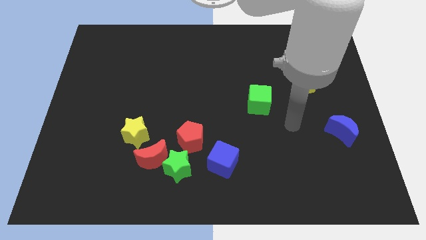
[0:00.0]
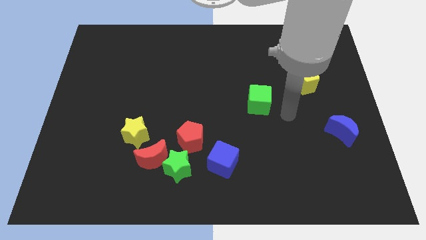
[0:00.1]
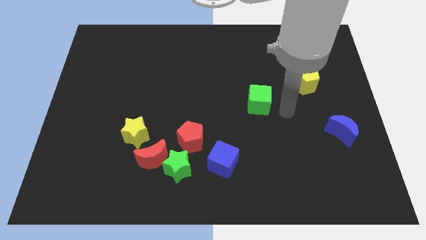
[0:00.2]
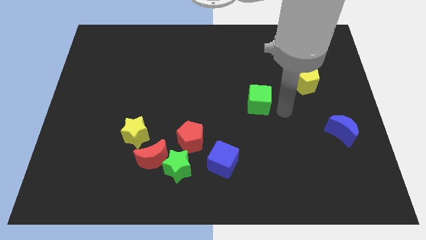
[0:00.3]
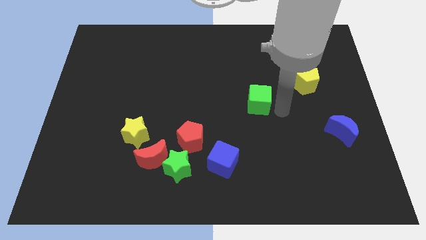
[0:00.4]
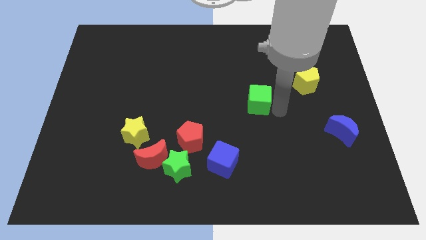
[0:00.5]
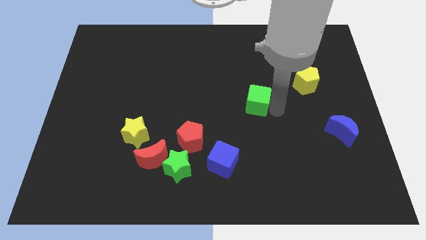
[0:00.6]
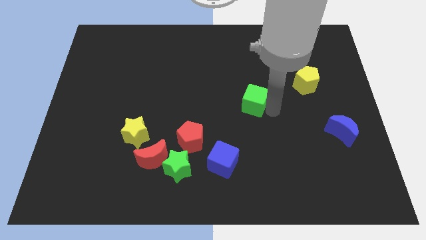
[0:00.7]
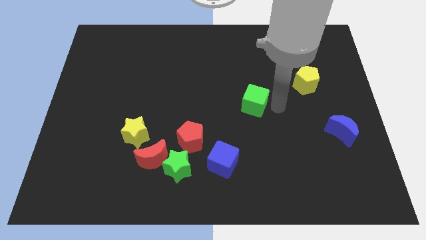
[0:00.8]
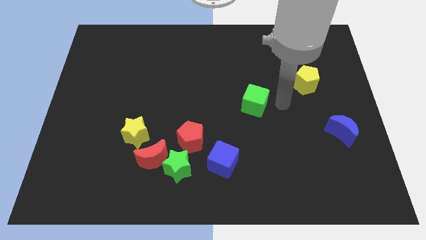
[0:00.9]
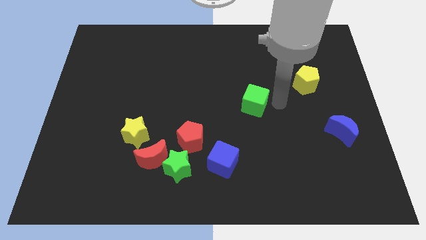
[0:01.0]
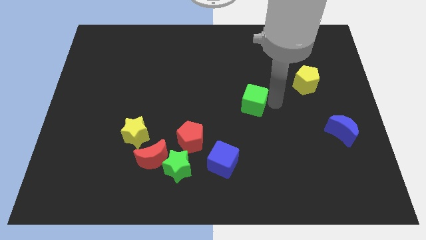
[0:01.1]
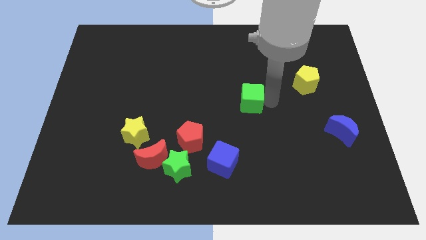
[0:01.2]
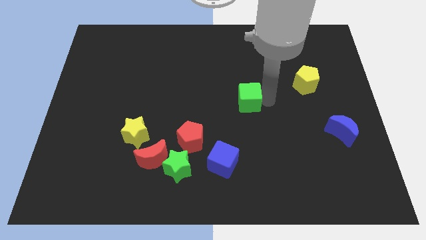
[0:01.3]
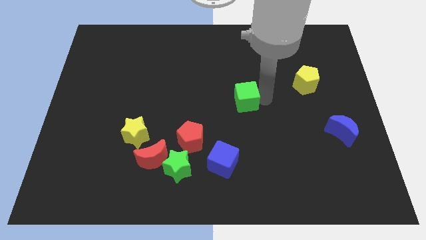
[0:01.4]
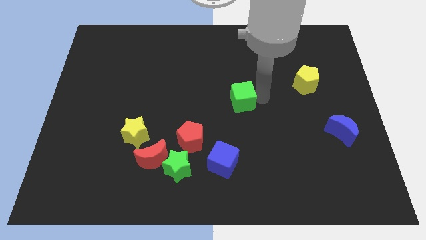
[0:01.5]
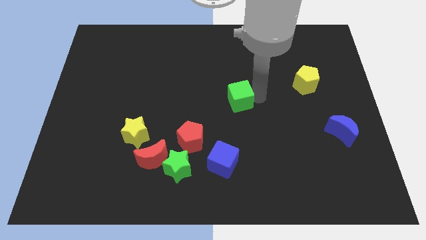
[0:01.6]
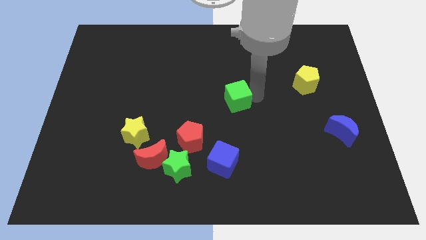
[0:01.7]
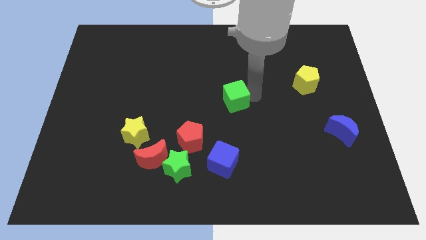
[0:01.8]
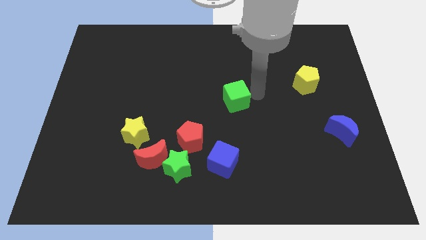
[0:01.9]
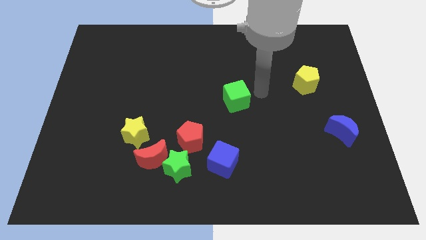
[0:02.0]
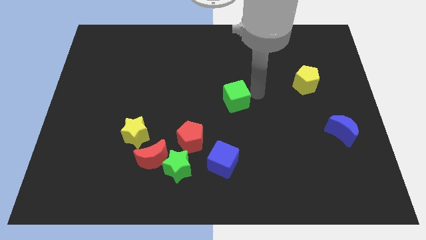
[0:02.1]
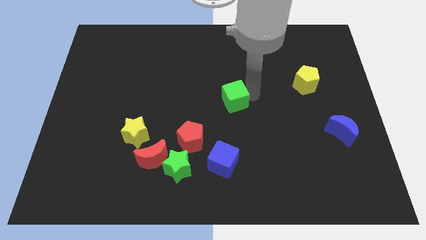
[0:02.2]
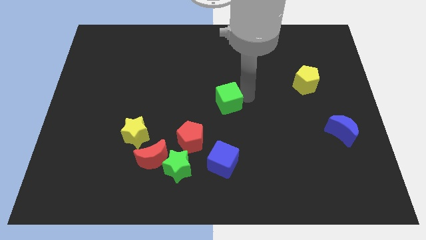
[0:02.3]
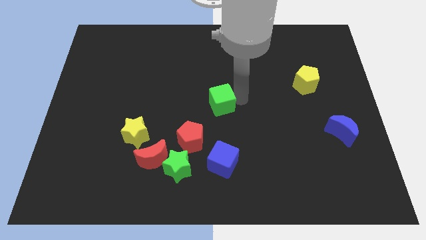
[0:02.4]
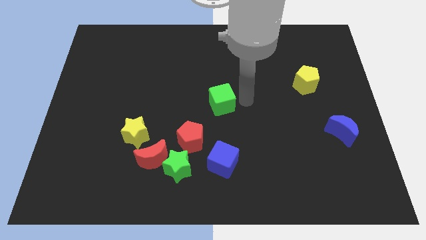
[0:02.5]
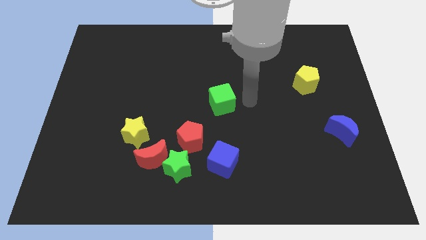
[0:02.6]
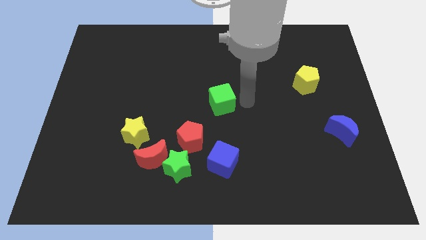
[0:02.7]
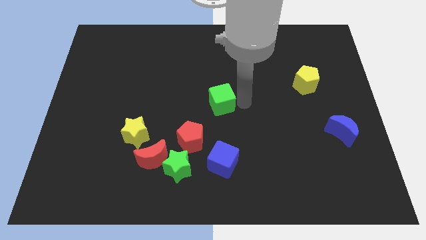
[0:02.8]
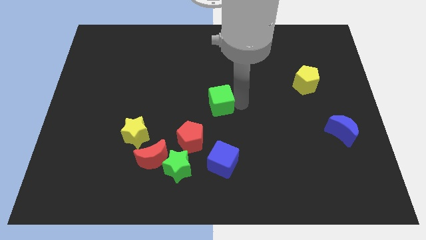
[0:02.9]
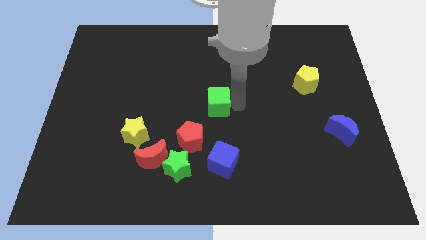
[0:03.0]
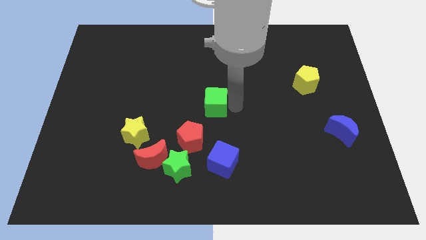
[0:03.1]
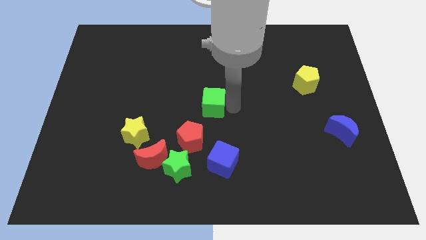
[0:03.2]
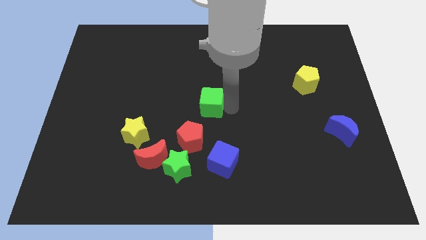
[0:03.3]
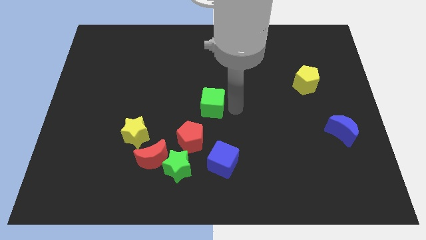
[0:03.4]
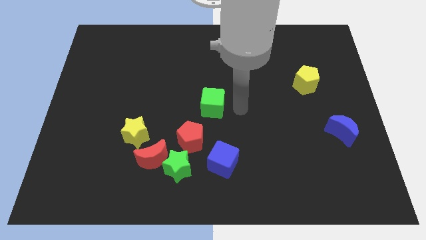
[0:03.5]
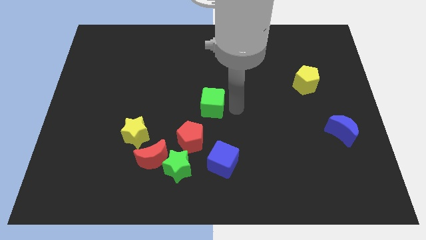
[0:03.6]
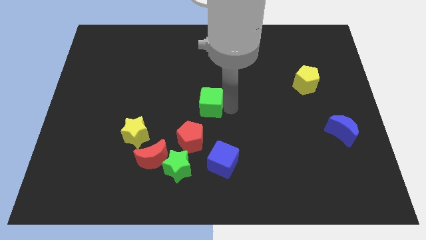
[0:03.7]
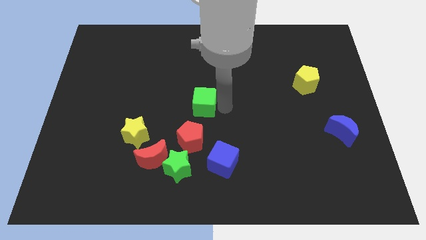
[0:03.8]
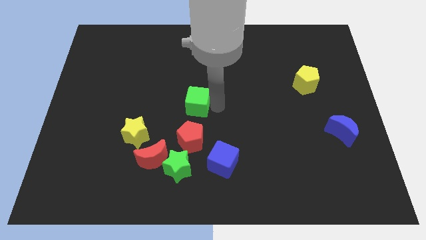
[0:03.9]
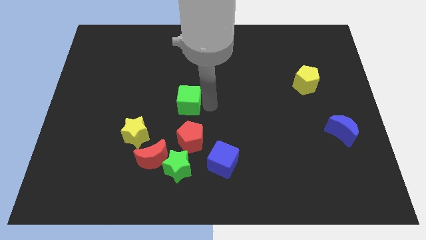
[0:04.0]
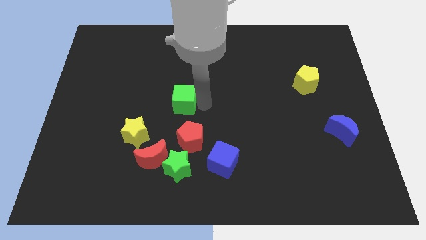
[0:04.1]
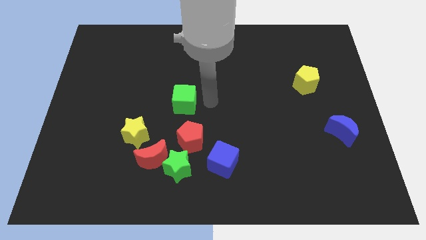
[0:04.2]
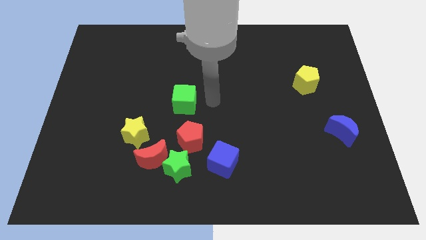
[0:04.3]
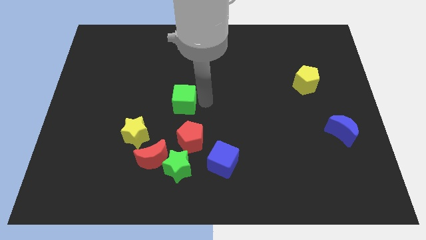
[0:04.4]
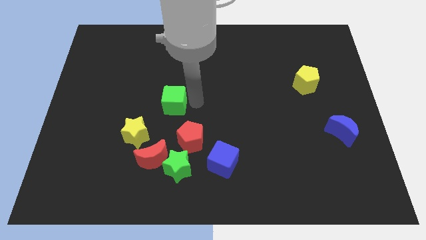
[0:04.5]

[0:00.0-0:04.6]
push the green cube left

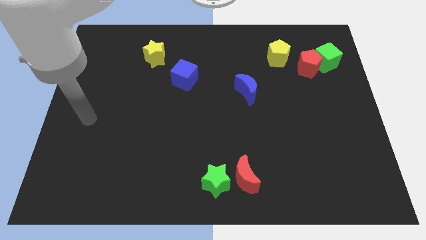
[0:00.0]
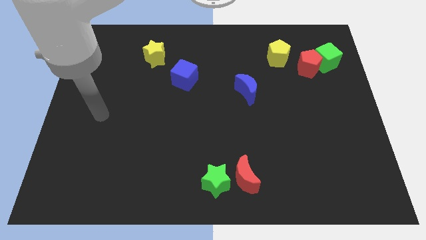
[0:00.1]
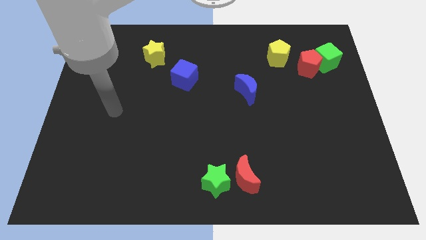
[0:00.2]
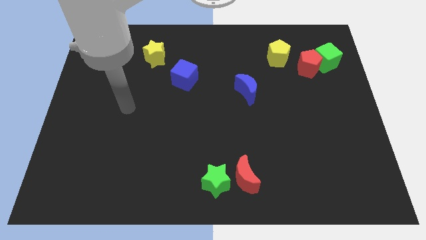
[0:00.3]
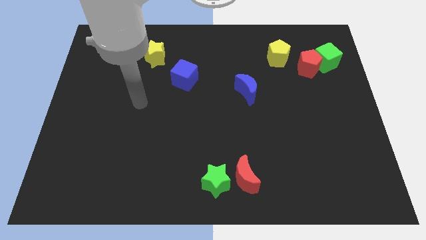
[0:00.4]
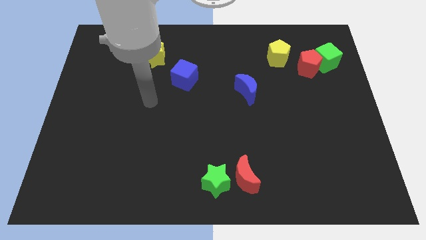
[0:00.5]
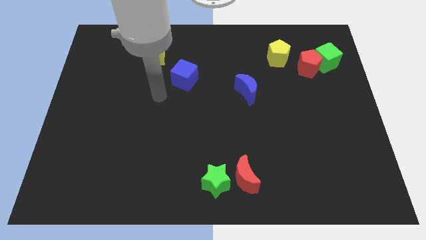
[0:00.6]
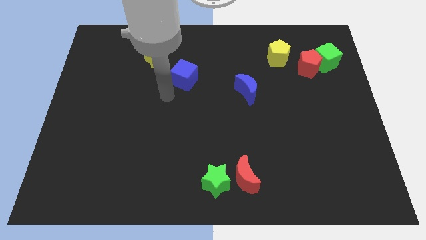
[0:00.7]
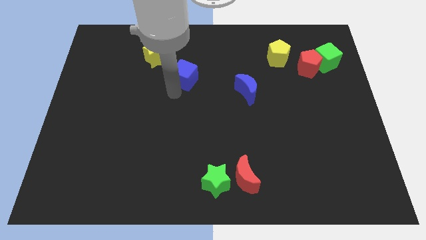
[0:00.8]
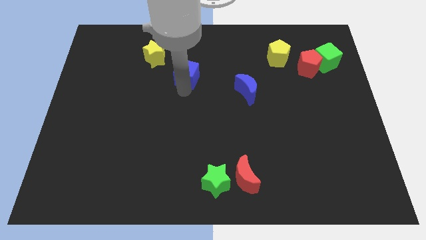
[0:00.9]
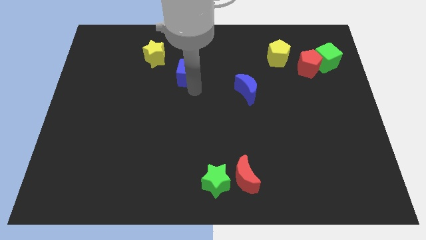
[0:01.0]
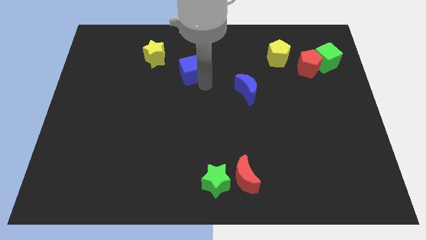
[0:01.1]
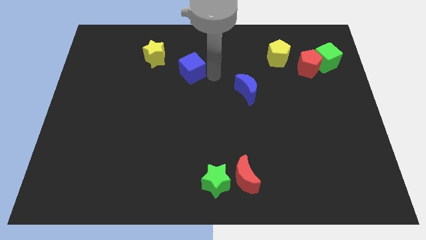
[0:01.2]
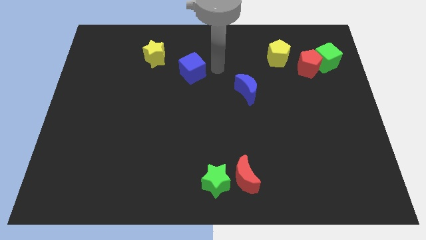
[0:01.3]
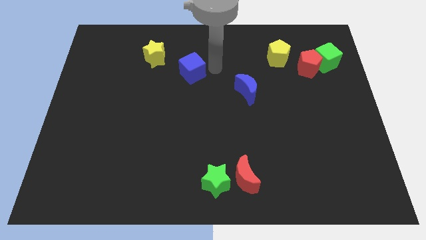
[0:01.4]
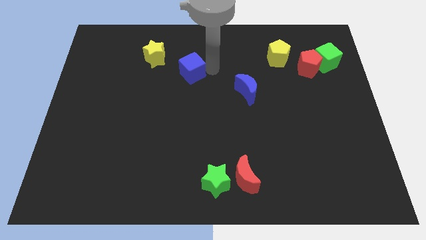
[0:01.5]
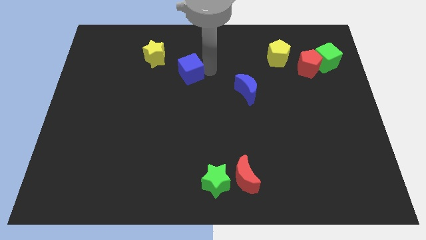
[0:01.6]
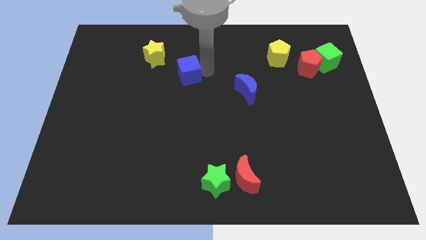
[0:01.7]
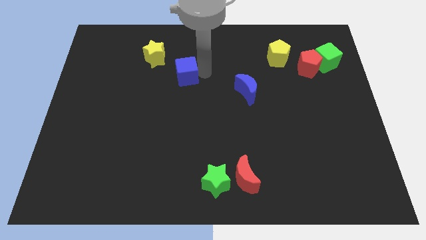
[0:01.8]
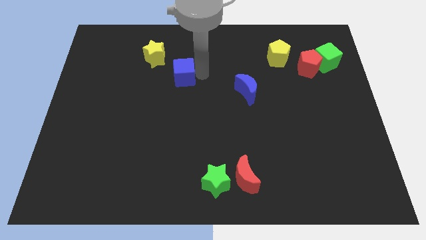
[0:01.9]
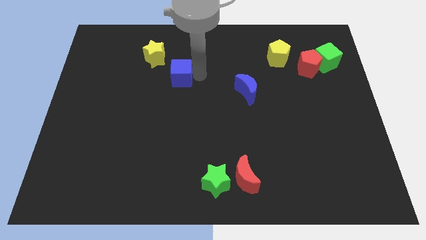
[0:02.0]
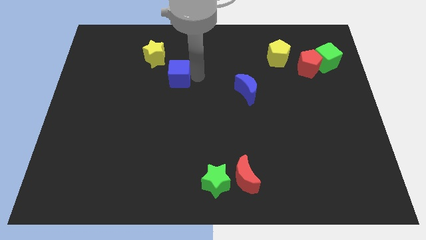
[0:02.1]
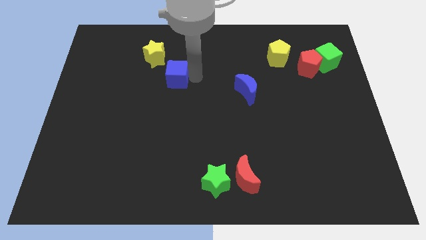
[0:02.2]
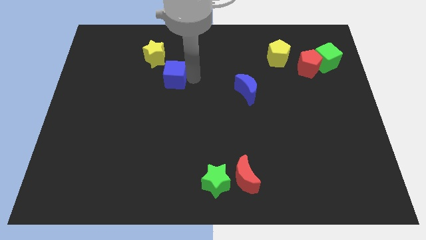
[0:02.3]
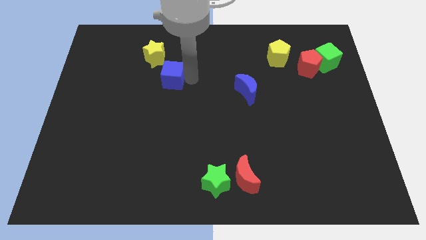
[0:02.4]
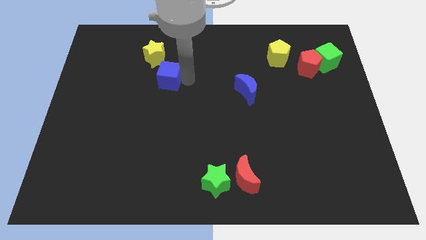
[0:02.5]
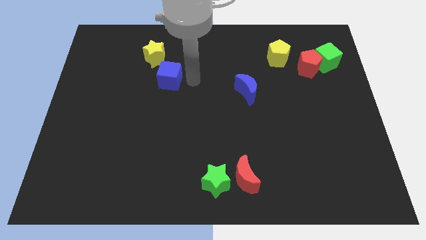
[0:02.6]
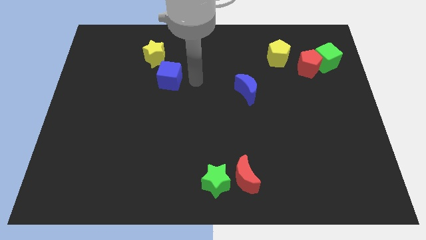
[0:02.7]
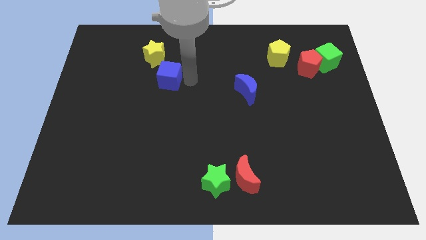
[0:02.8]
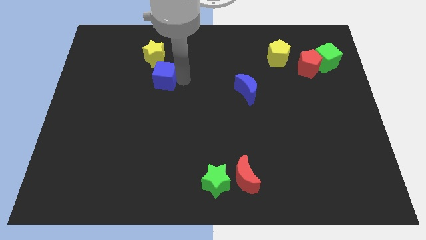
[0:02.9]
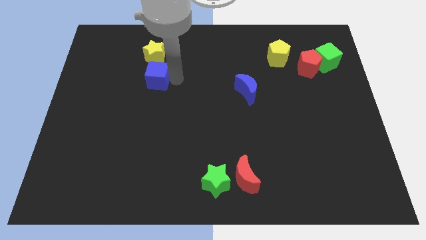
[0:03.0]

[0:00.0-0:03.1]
slightly push the blue cube left
